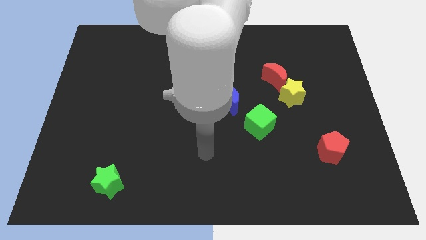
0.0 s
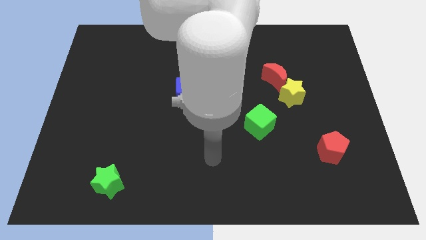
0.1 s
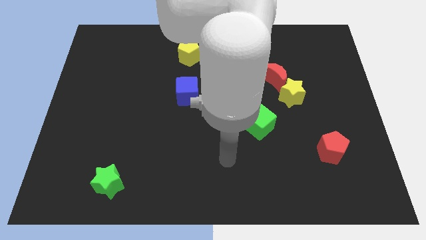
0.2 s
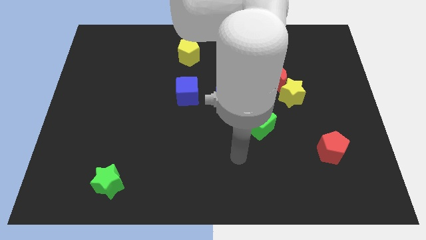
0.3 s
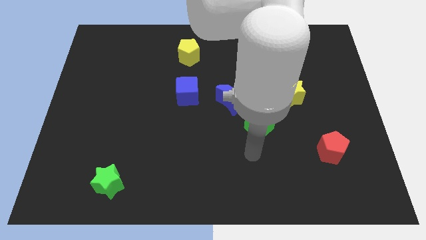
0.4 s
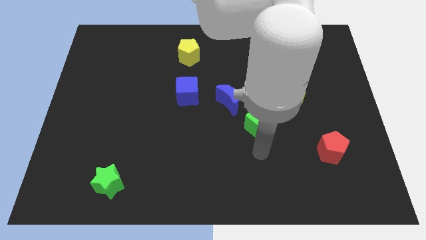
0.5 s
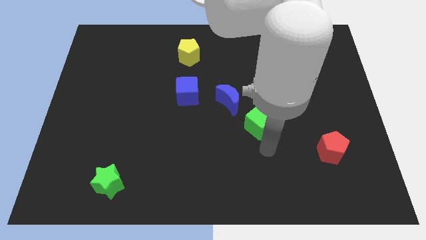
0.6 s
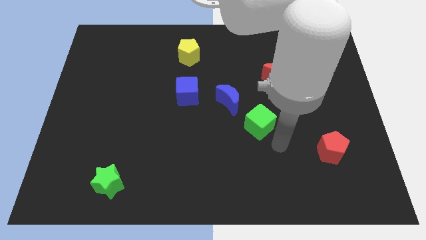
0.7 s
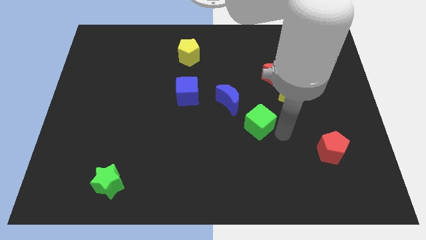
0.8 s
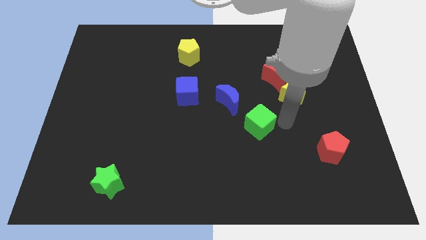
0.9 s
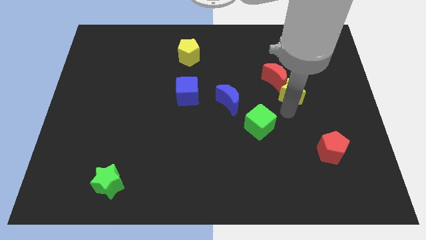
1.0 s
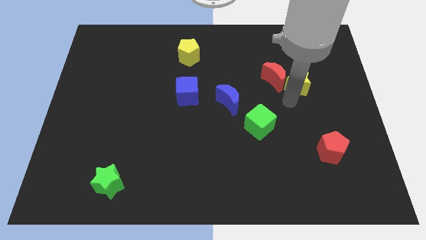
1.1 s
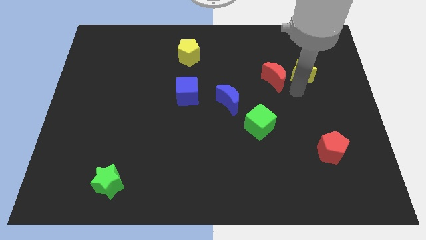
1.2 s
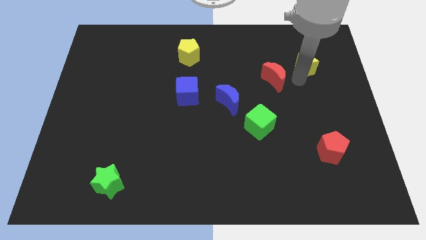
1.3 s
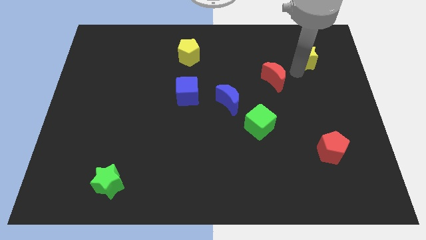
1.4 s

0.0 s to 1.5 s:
pull the red moon apart from the yellow star

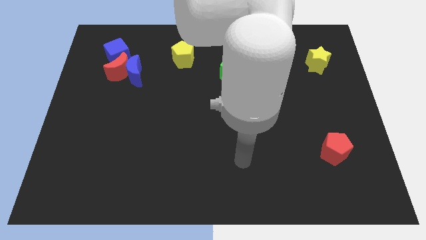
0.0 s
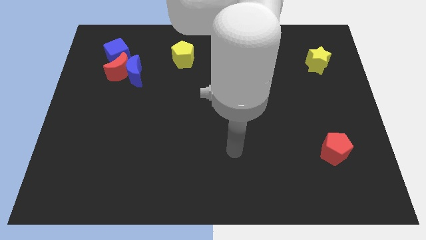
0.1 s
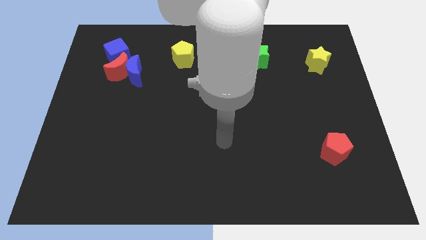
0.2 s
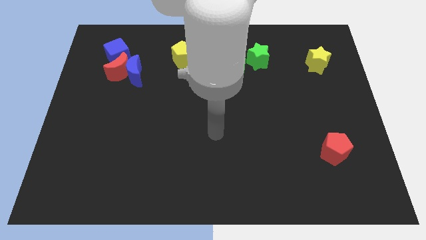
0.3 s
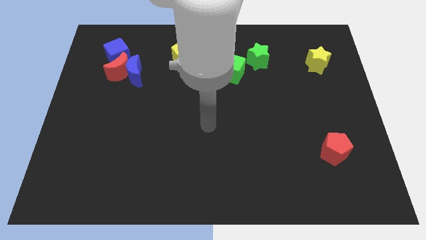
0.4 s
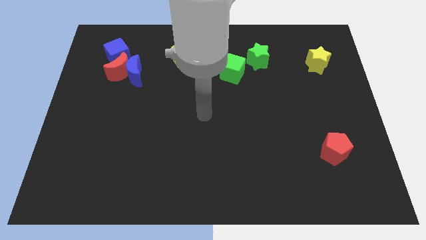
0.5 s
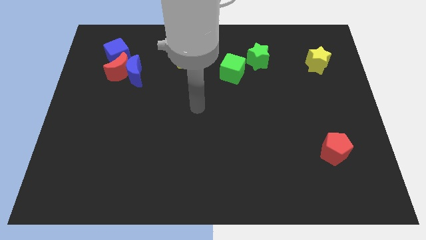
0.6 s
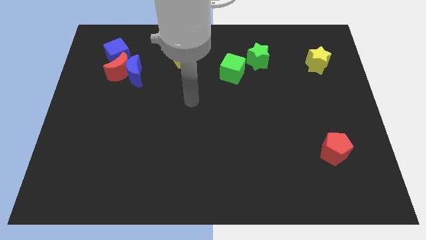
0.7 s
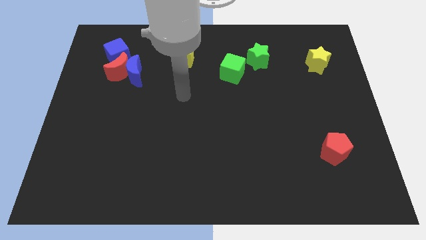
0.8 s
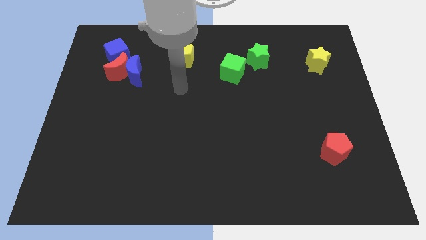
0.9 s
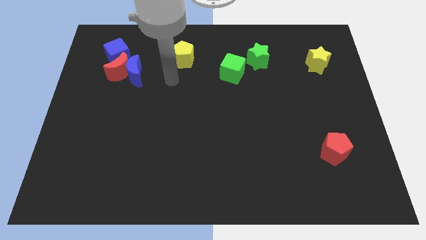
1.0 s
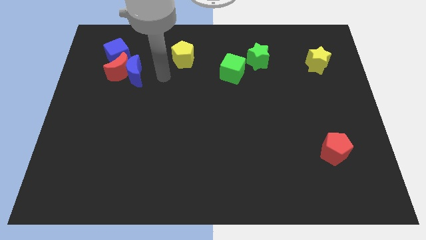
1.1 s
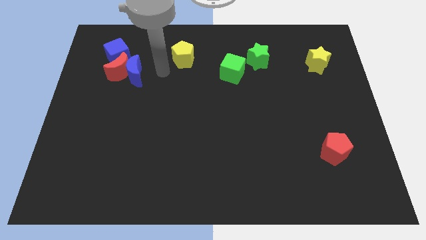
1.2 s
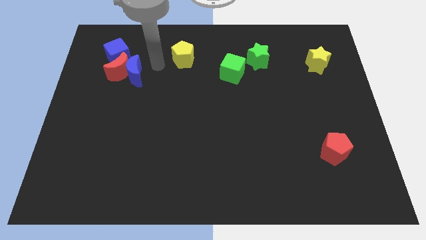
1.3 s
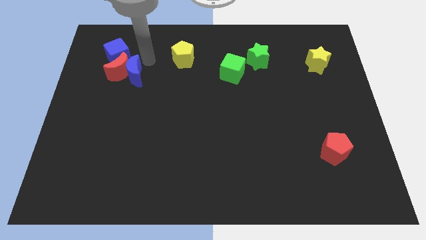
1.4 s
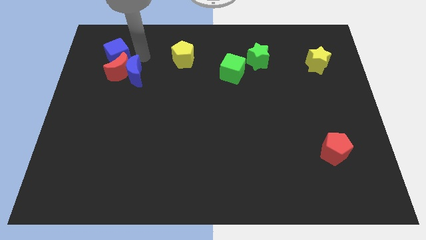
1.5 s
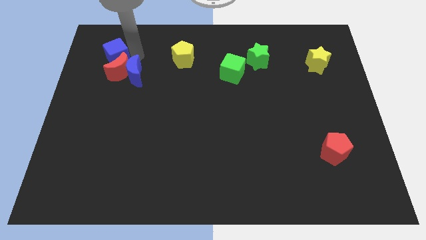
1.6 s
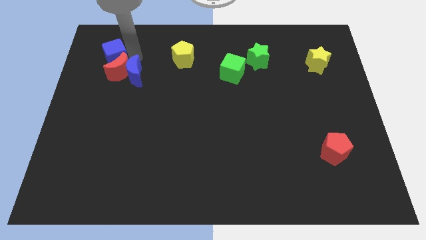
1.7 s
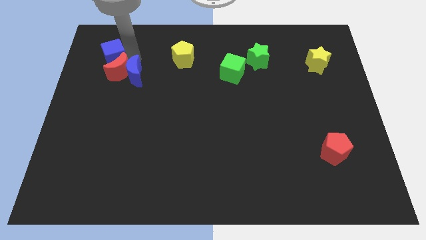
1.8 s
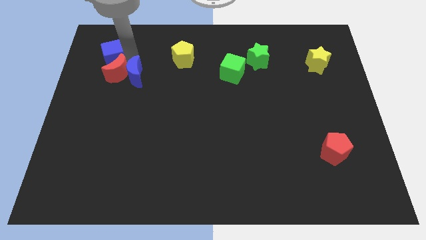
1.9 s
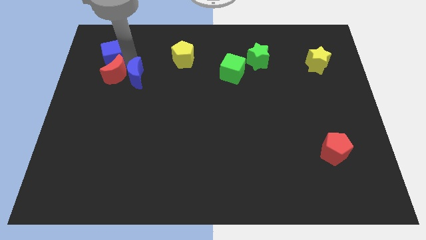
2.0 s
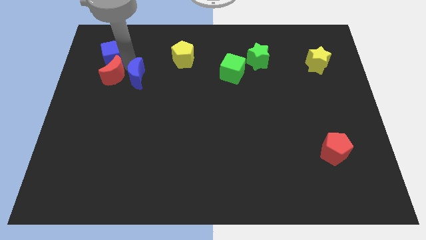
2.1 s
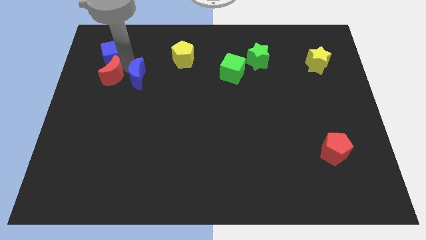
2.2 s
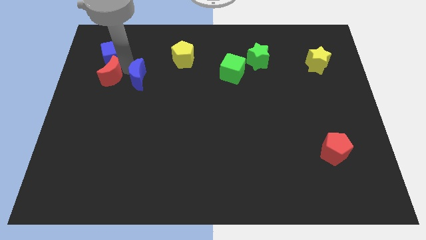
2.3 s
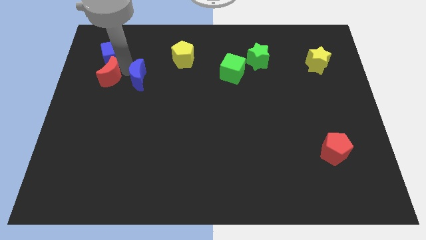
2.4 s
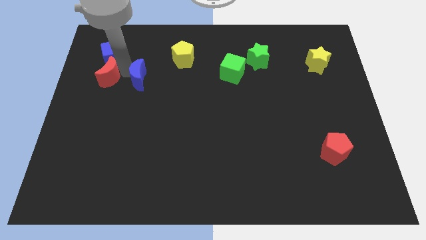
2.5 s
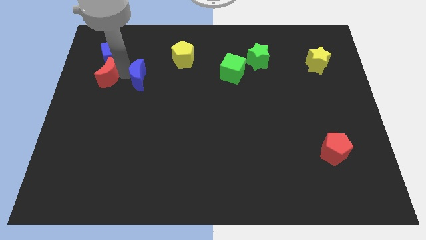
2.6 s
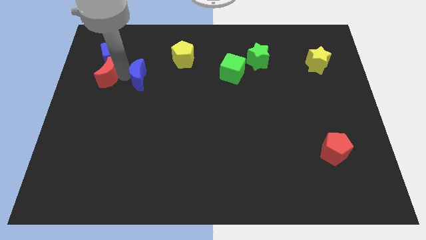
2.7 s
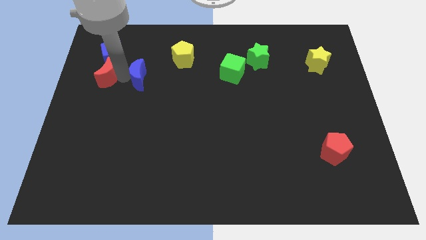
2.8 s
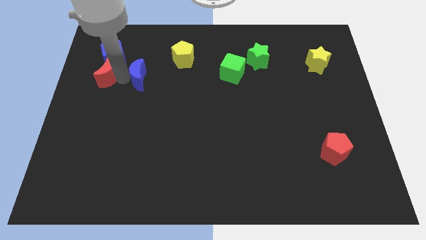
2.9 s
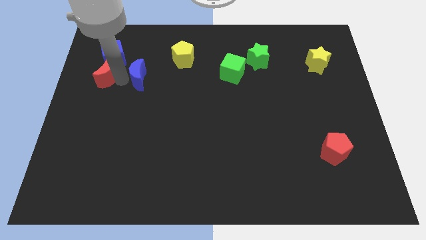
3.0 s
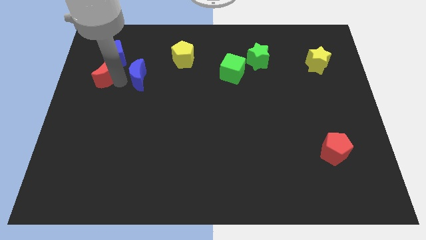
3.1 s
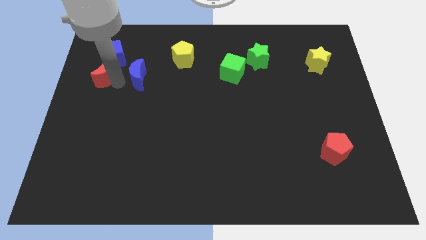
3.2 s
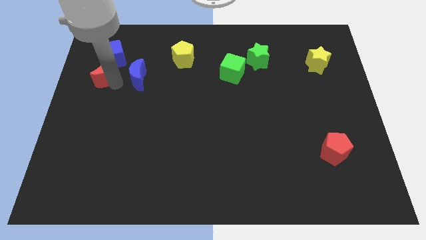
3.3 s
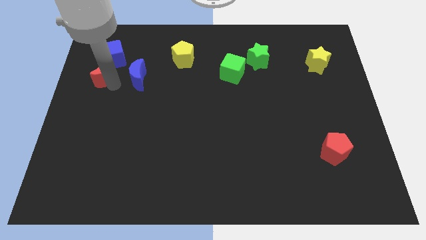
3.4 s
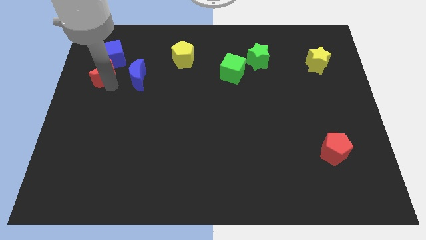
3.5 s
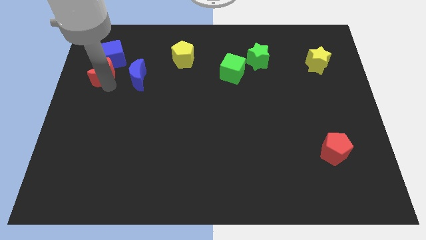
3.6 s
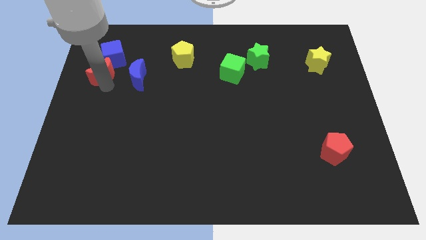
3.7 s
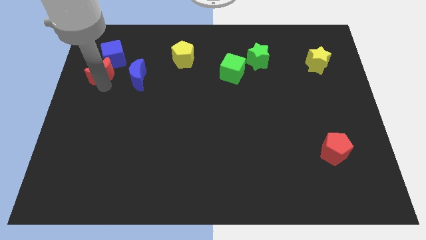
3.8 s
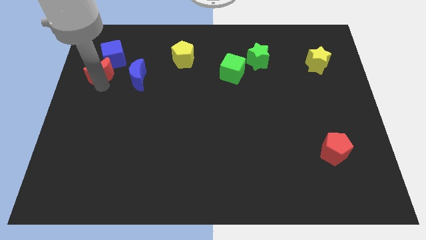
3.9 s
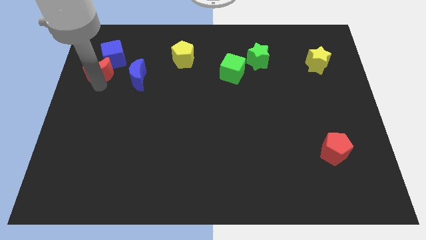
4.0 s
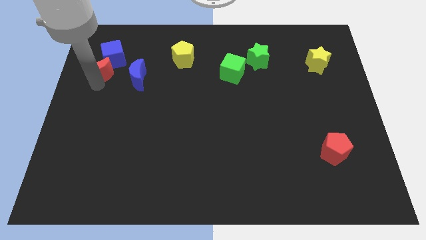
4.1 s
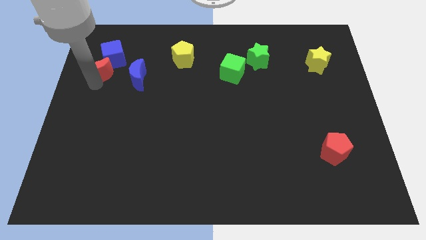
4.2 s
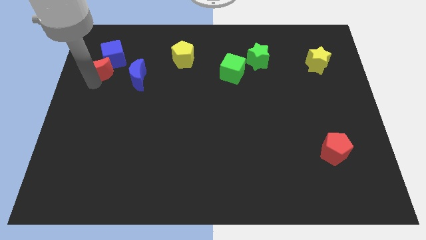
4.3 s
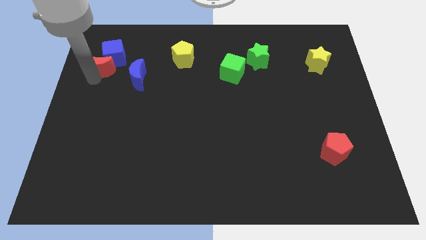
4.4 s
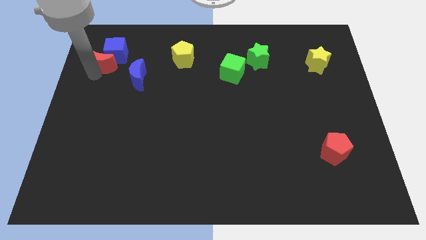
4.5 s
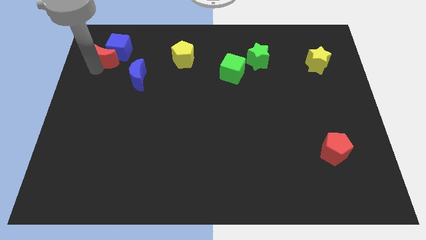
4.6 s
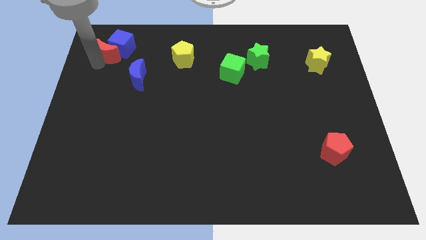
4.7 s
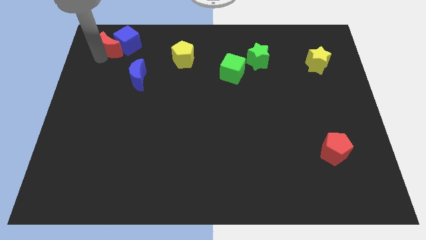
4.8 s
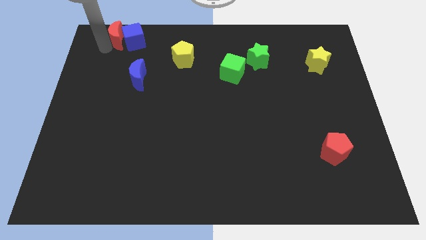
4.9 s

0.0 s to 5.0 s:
separate the red moon from the blue moon and blue cube

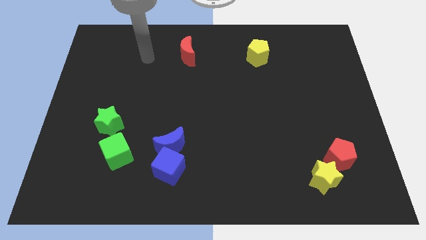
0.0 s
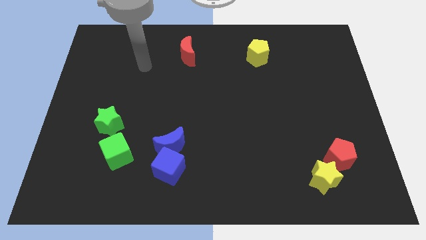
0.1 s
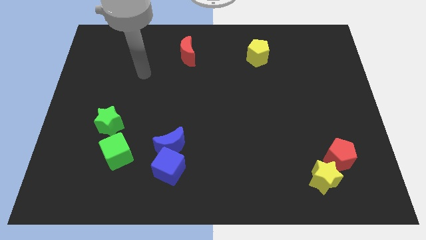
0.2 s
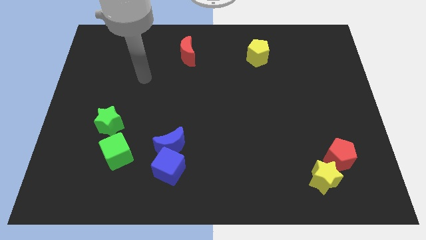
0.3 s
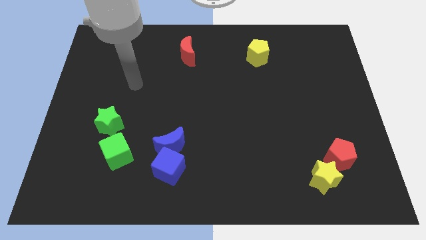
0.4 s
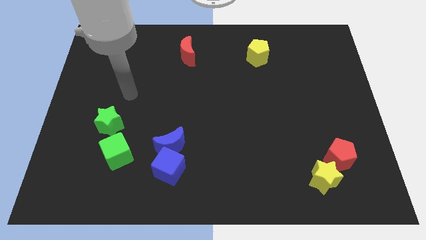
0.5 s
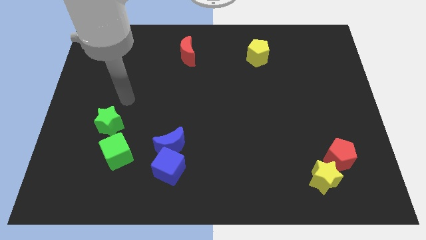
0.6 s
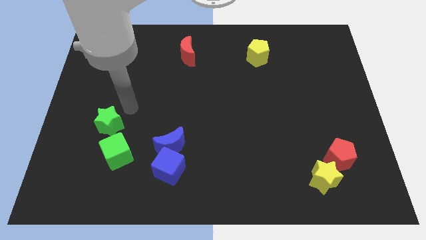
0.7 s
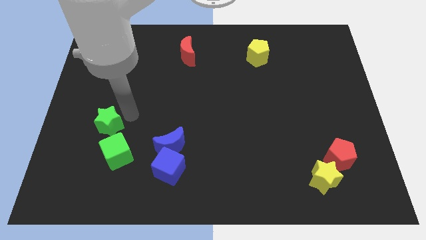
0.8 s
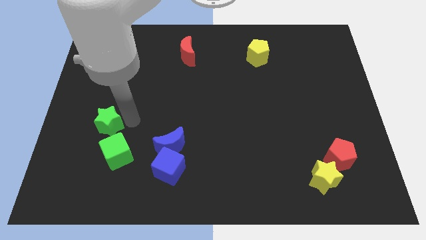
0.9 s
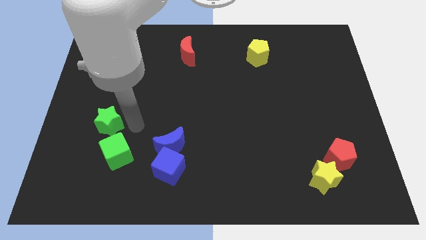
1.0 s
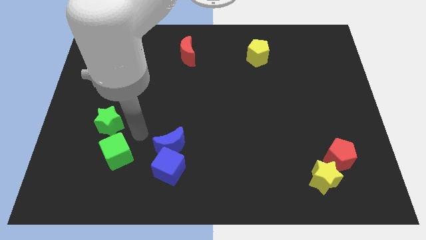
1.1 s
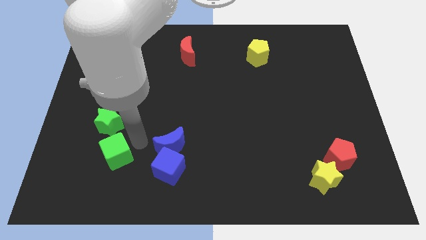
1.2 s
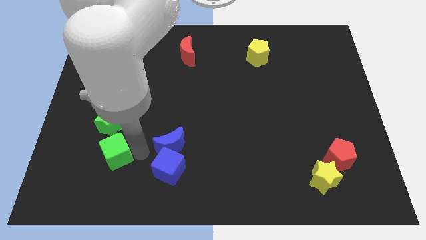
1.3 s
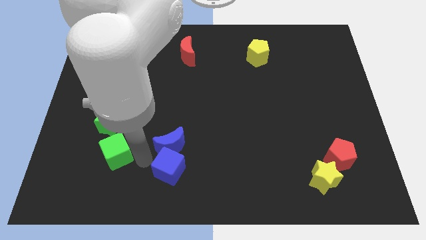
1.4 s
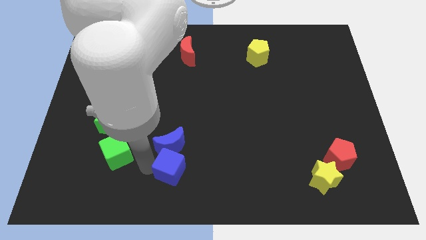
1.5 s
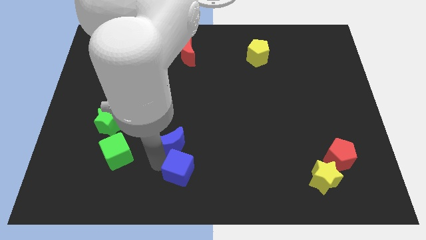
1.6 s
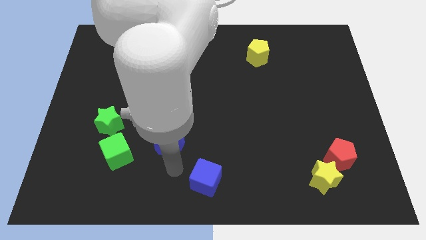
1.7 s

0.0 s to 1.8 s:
pull the blue moon apart from the blue cube

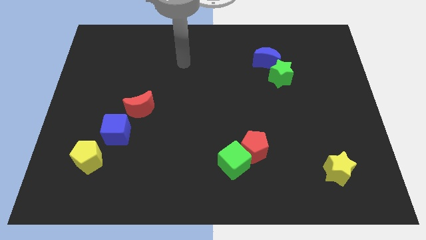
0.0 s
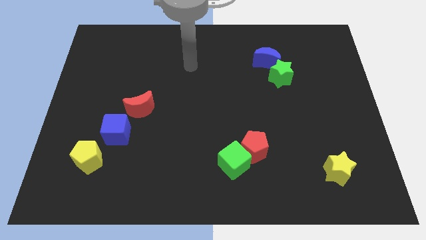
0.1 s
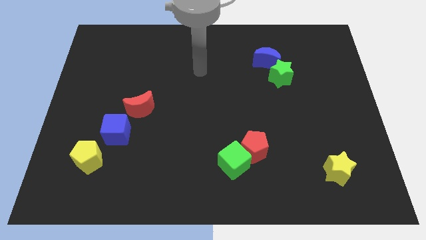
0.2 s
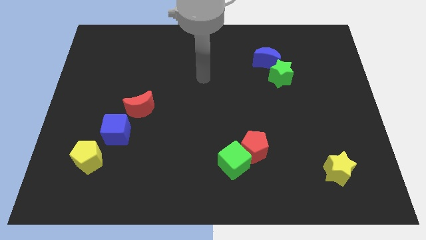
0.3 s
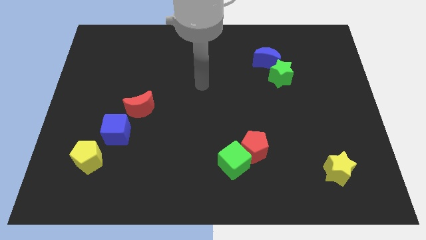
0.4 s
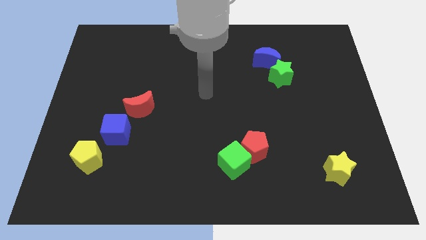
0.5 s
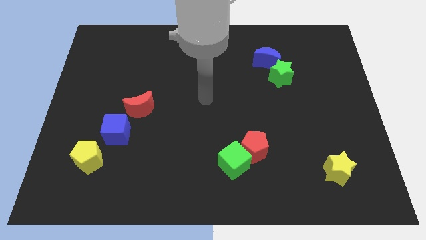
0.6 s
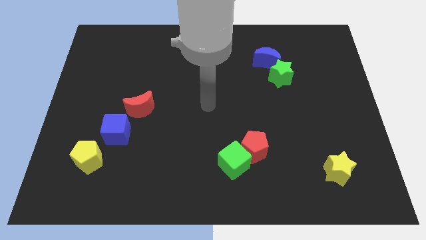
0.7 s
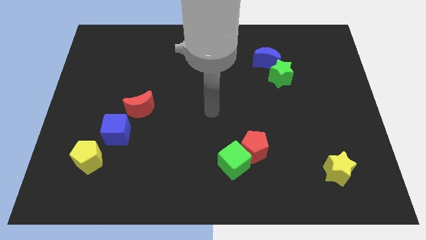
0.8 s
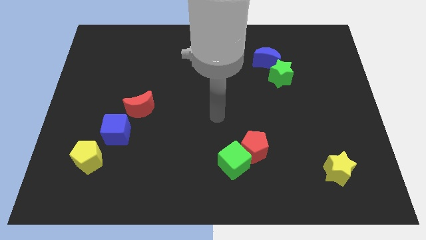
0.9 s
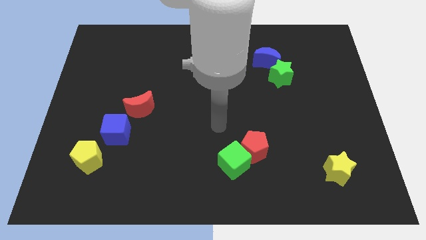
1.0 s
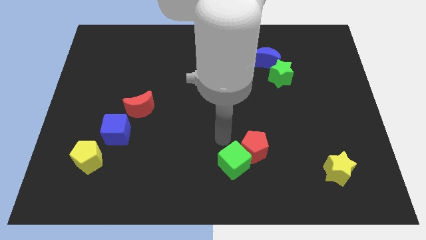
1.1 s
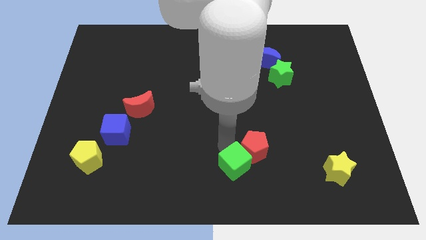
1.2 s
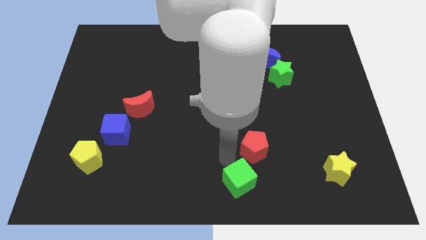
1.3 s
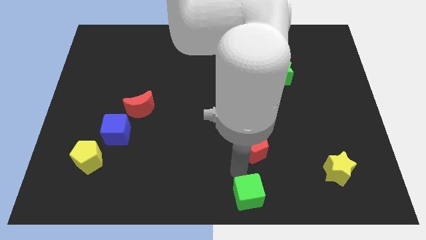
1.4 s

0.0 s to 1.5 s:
pull the red pentagon apart from the green cube
